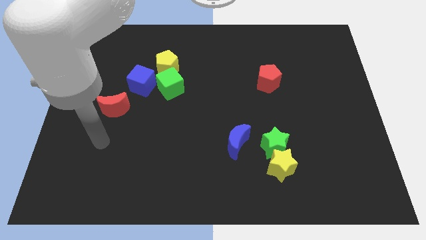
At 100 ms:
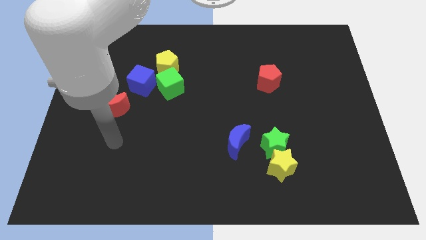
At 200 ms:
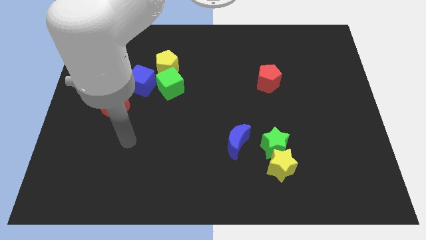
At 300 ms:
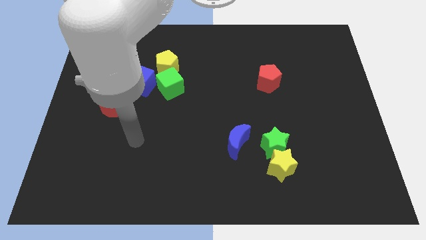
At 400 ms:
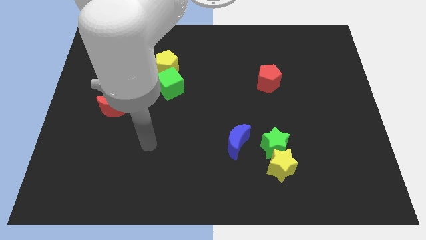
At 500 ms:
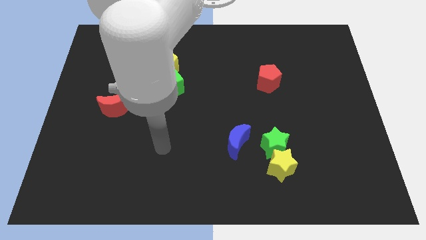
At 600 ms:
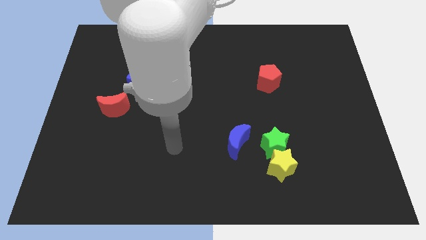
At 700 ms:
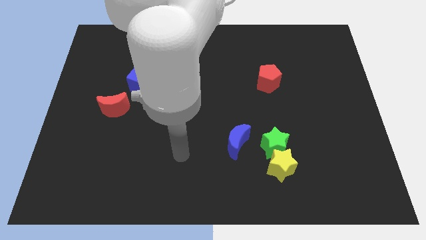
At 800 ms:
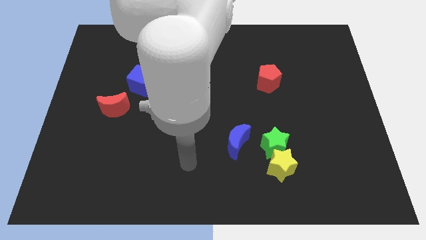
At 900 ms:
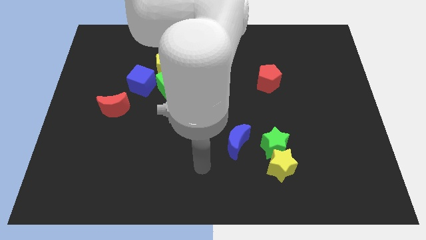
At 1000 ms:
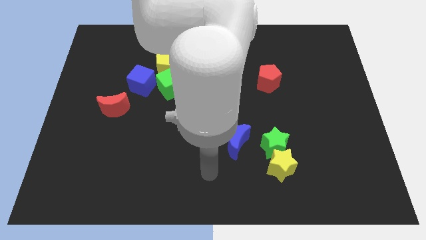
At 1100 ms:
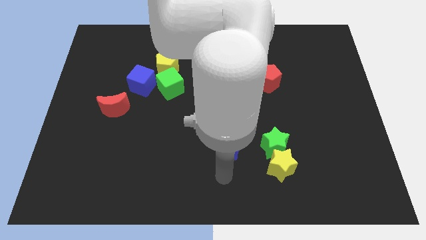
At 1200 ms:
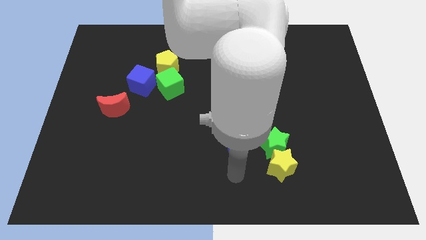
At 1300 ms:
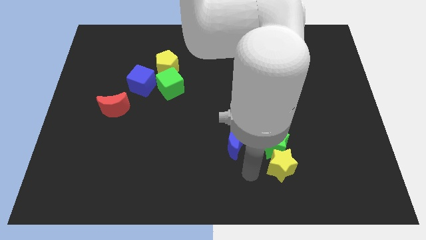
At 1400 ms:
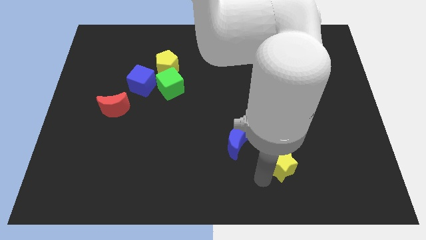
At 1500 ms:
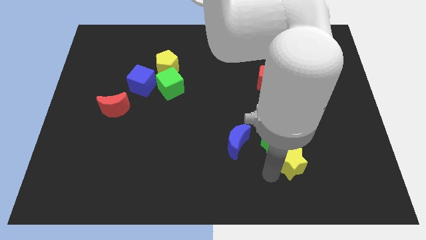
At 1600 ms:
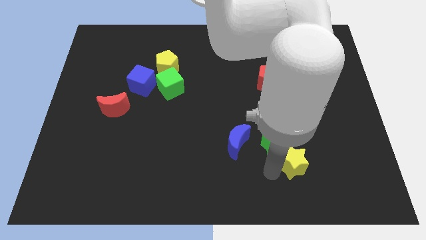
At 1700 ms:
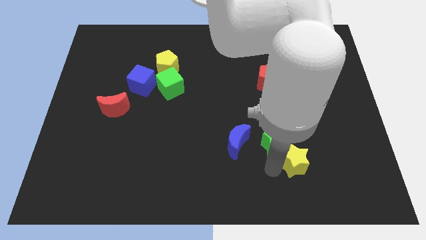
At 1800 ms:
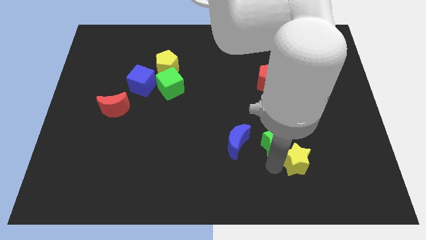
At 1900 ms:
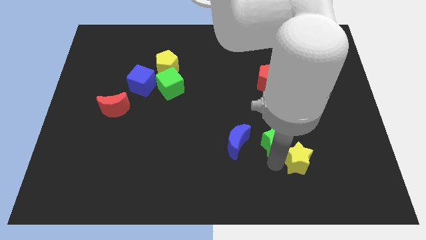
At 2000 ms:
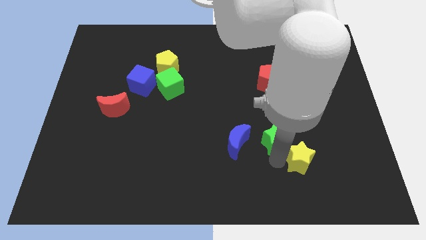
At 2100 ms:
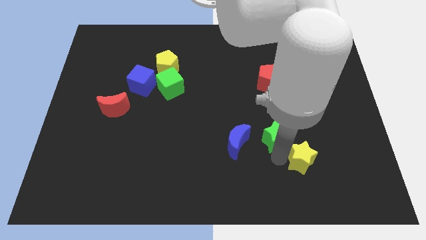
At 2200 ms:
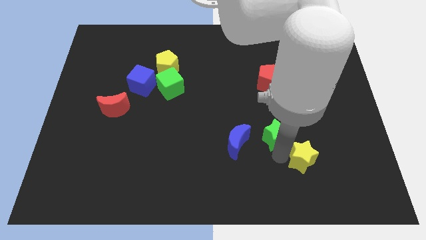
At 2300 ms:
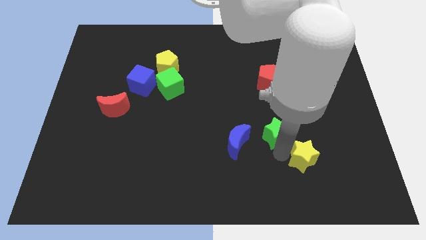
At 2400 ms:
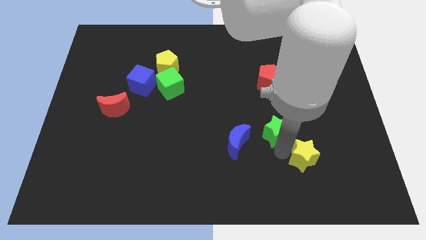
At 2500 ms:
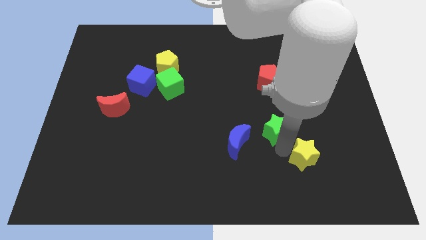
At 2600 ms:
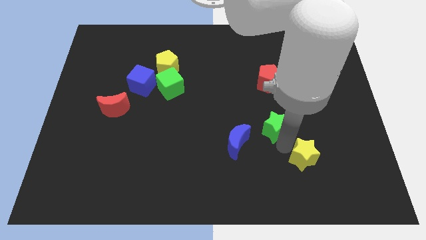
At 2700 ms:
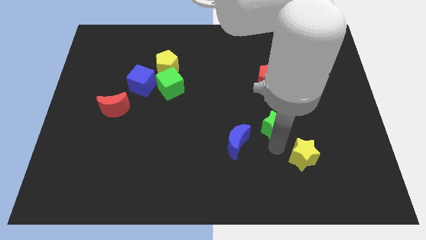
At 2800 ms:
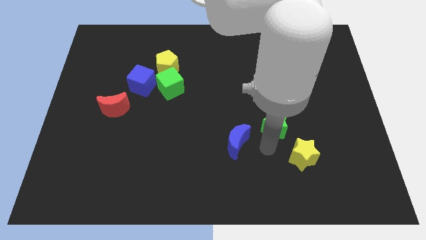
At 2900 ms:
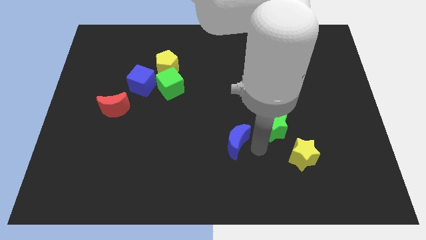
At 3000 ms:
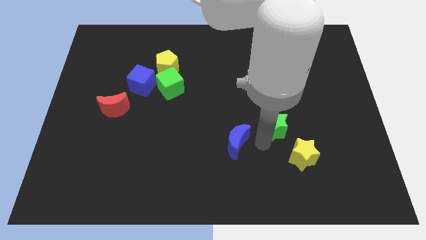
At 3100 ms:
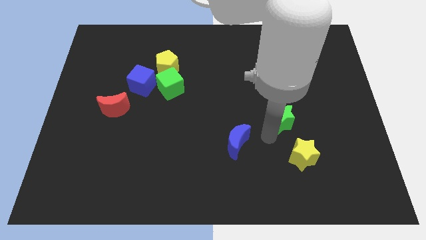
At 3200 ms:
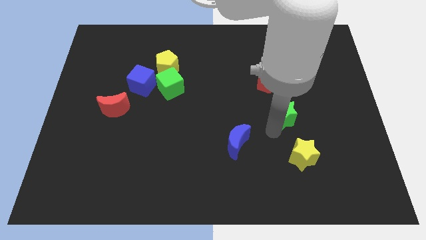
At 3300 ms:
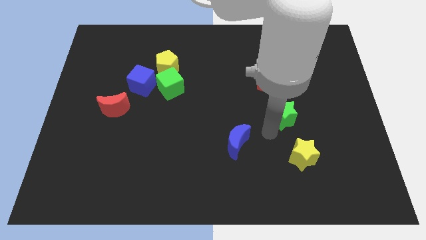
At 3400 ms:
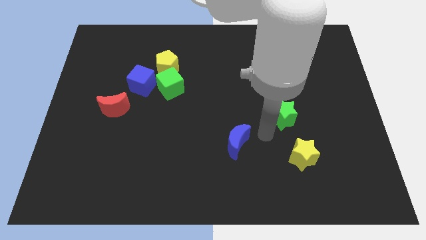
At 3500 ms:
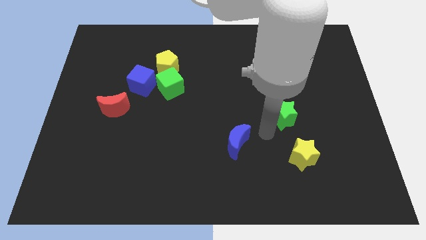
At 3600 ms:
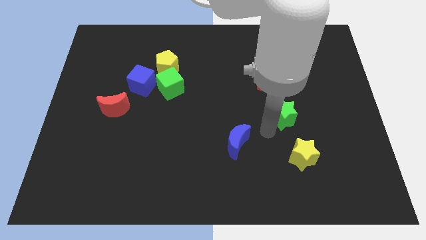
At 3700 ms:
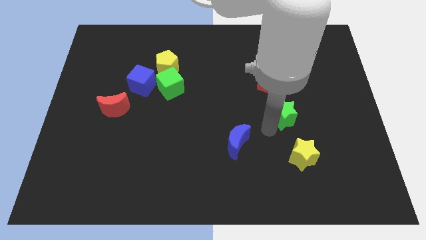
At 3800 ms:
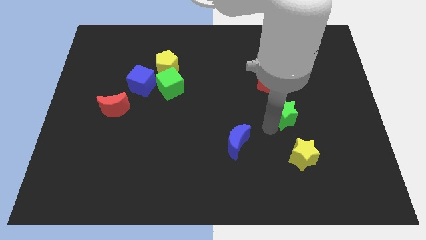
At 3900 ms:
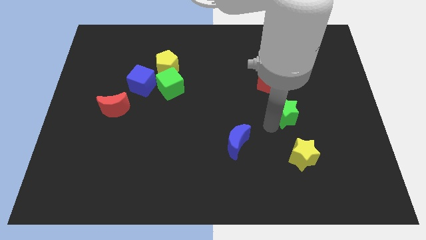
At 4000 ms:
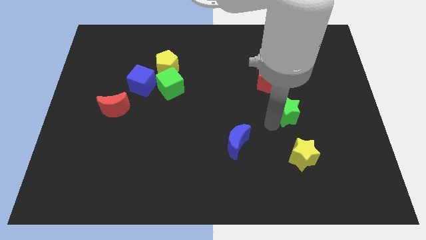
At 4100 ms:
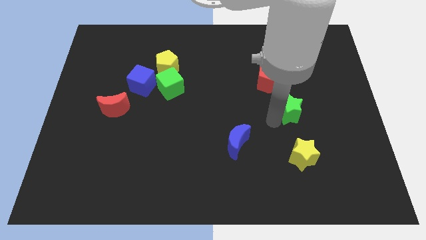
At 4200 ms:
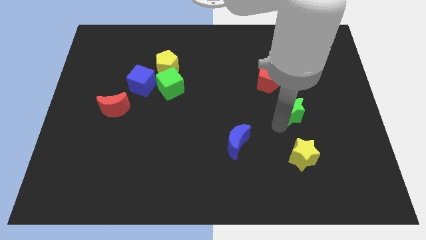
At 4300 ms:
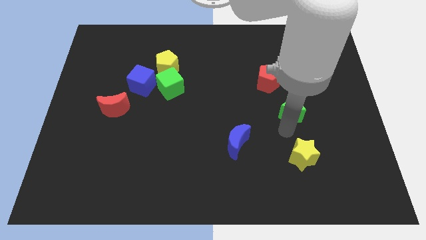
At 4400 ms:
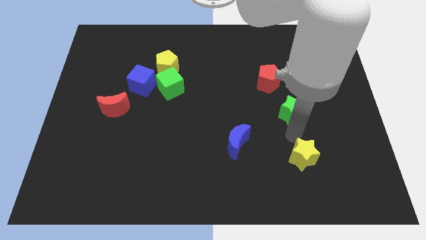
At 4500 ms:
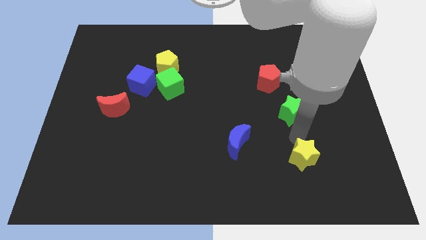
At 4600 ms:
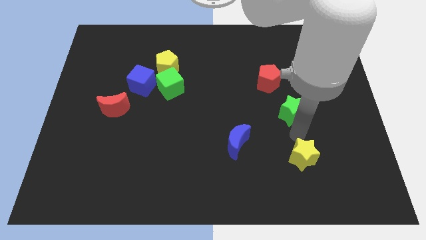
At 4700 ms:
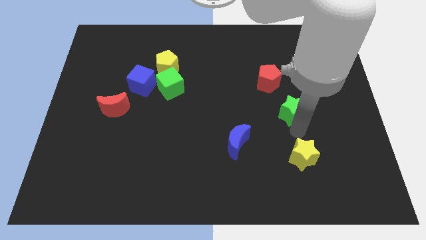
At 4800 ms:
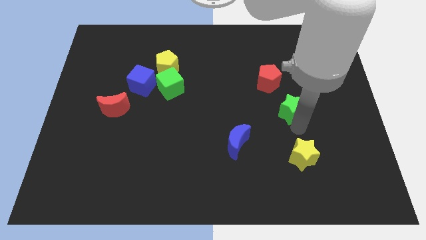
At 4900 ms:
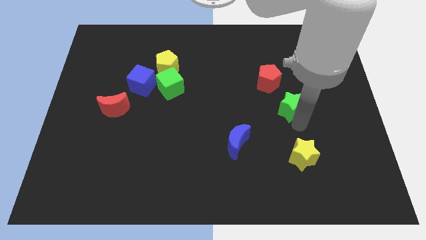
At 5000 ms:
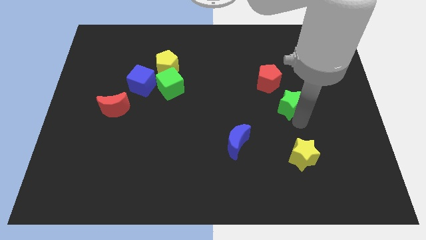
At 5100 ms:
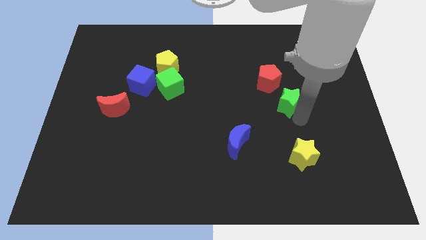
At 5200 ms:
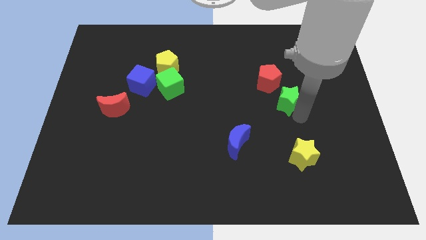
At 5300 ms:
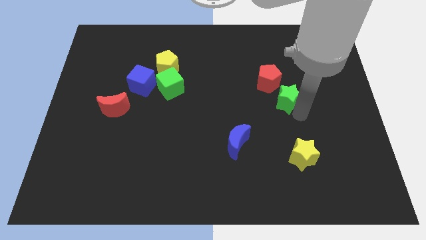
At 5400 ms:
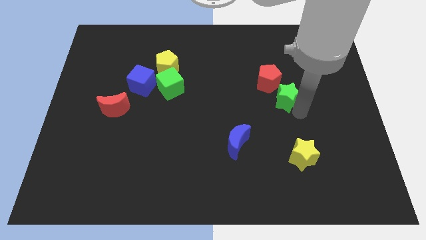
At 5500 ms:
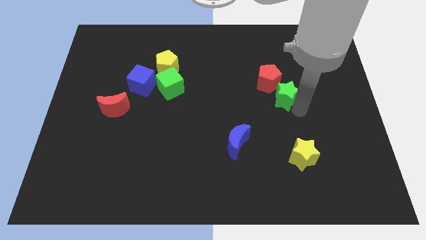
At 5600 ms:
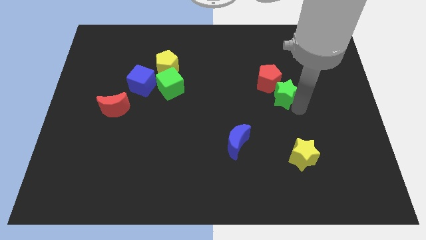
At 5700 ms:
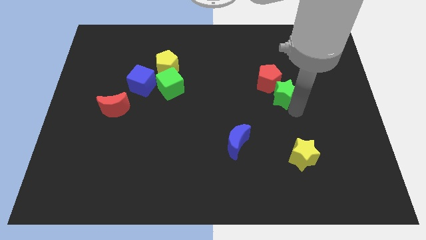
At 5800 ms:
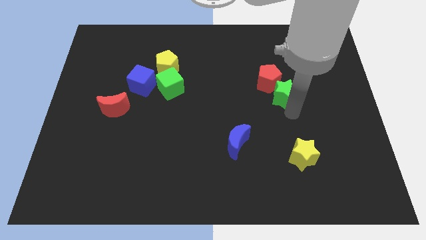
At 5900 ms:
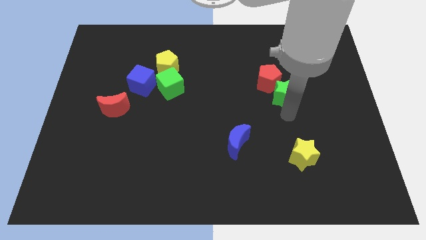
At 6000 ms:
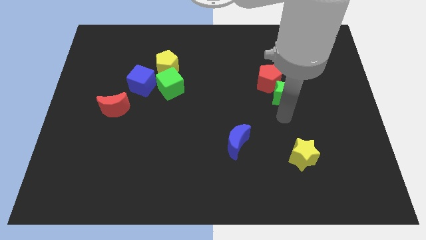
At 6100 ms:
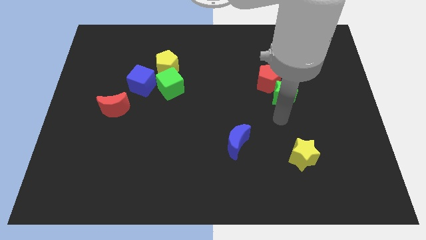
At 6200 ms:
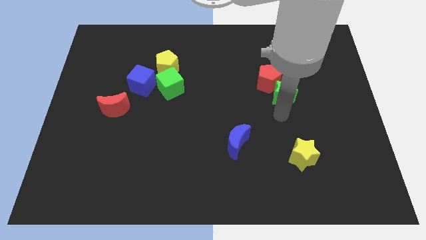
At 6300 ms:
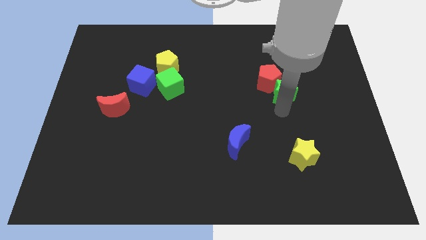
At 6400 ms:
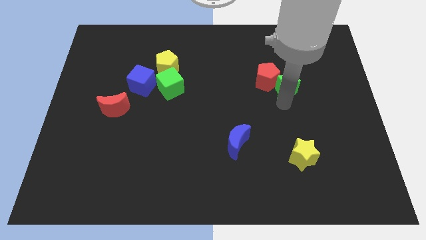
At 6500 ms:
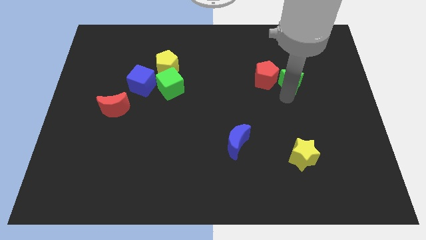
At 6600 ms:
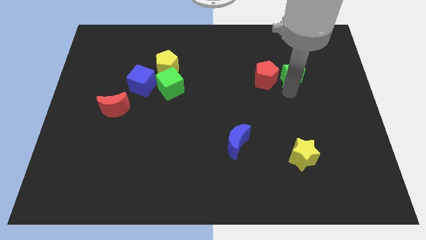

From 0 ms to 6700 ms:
push the green star diagonally up and to the right of the red pentagon

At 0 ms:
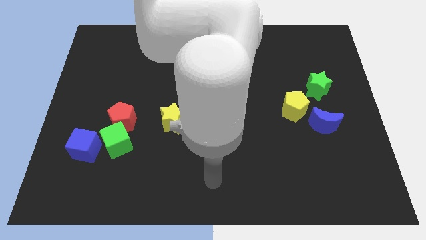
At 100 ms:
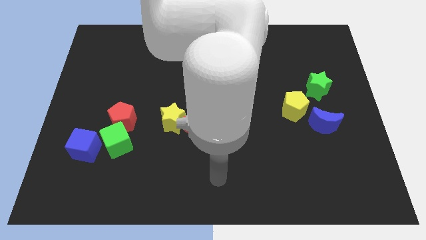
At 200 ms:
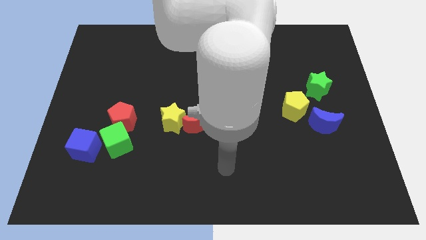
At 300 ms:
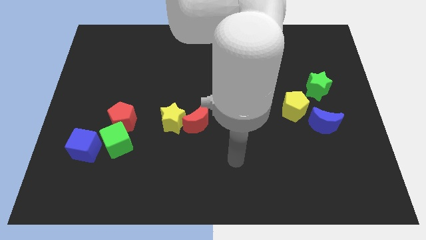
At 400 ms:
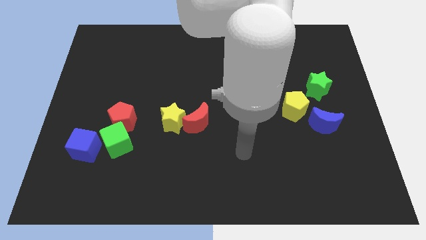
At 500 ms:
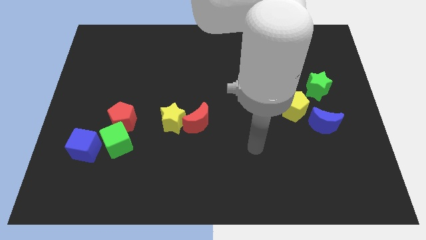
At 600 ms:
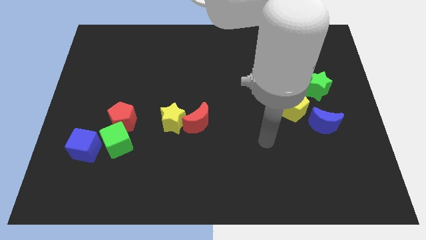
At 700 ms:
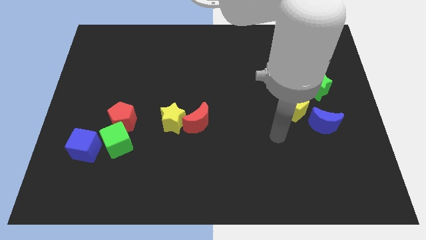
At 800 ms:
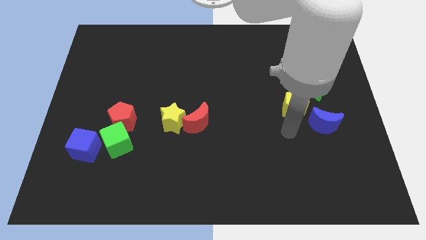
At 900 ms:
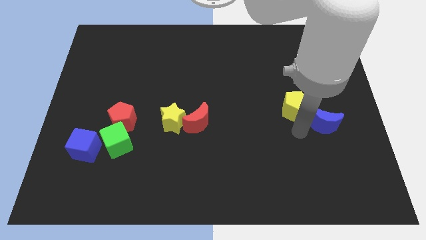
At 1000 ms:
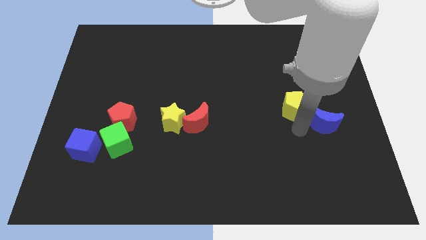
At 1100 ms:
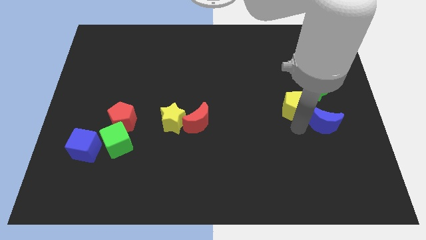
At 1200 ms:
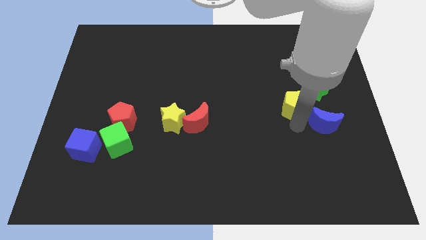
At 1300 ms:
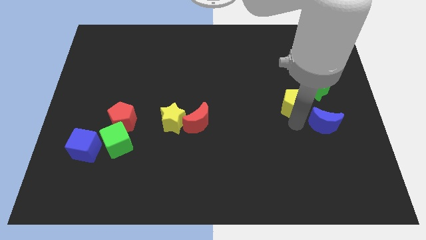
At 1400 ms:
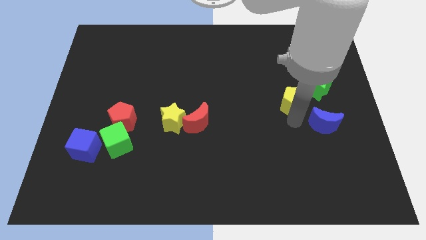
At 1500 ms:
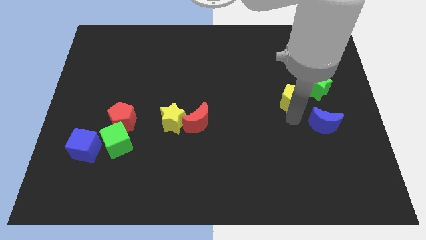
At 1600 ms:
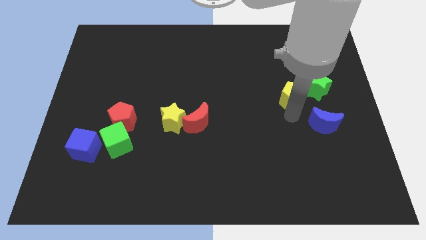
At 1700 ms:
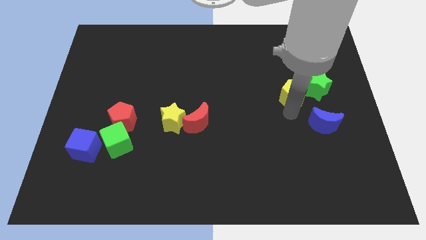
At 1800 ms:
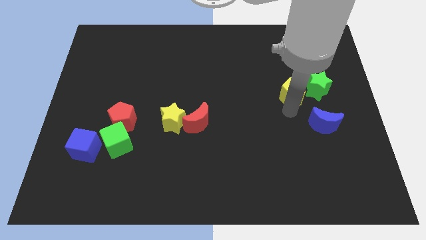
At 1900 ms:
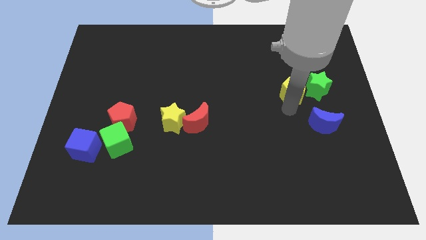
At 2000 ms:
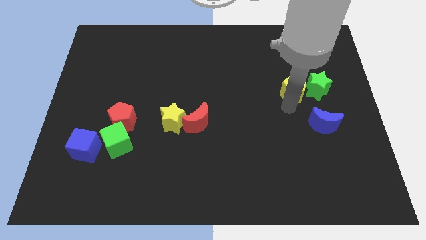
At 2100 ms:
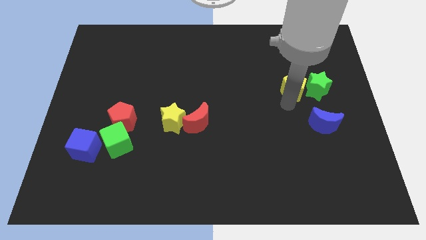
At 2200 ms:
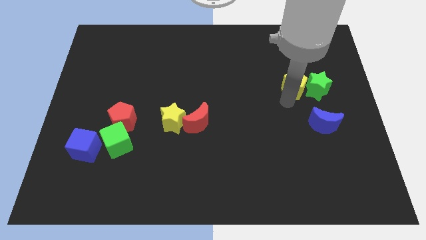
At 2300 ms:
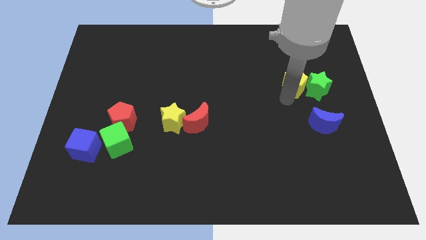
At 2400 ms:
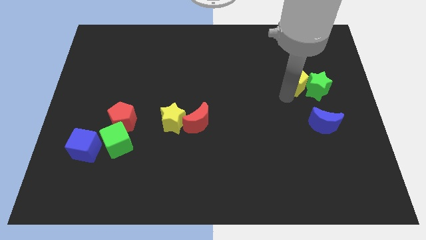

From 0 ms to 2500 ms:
slide the yellow pentagon to the top of the blue moon
